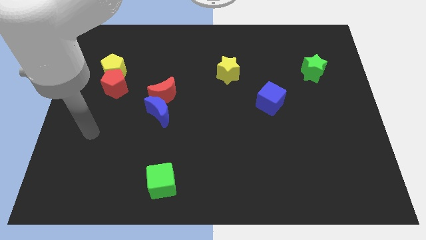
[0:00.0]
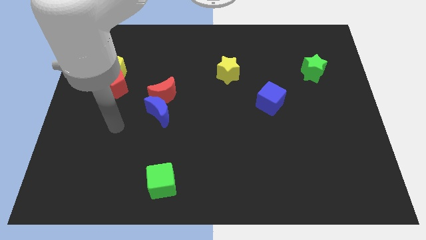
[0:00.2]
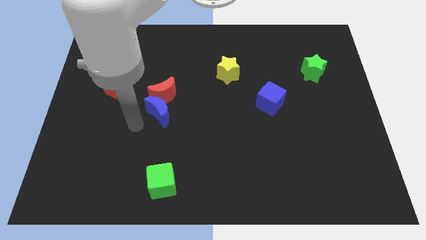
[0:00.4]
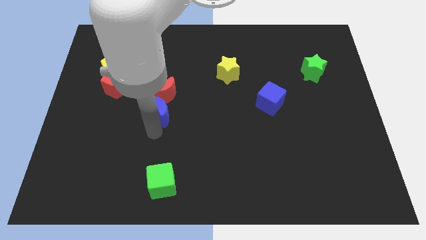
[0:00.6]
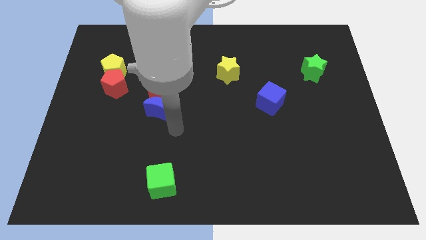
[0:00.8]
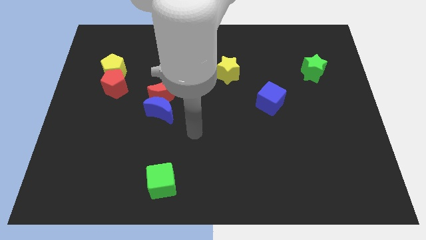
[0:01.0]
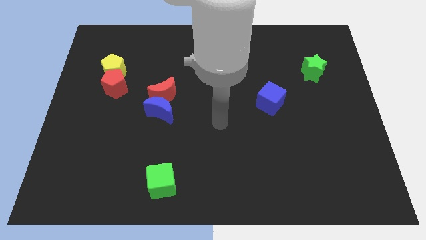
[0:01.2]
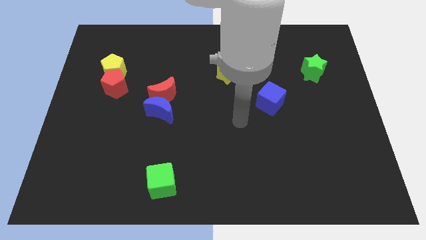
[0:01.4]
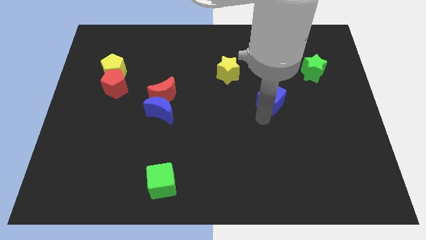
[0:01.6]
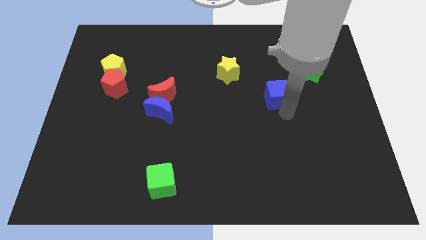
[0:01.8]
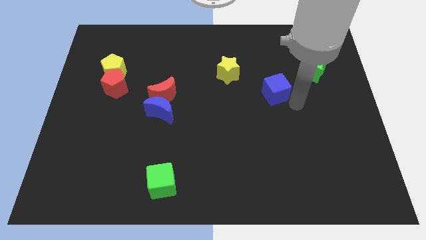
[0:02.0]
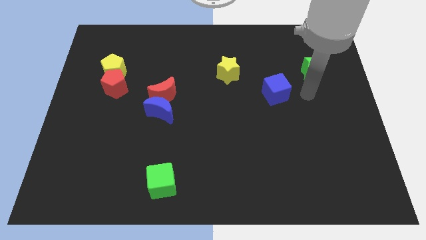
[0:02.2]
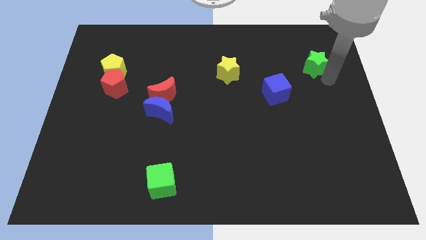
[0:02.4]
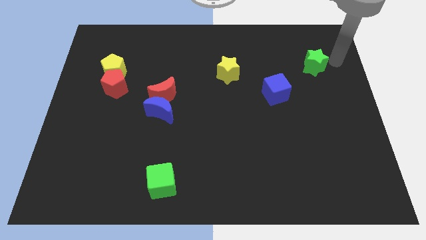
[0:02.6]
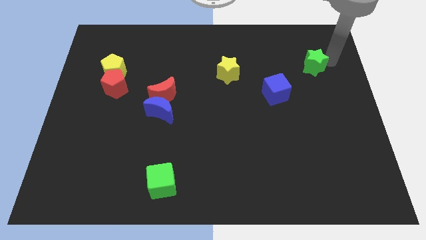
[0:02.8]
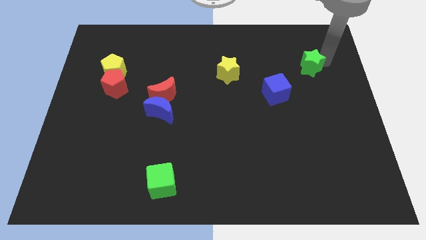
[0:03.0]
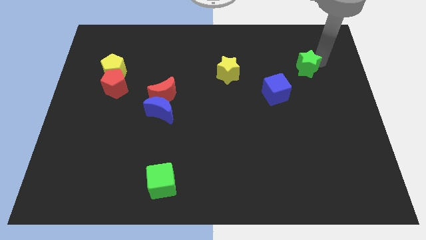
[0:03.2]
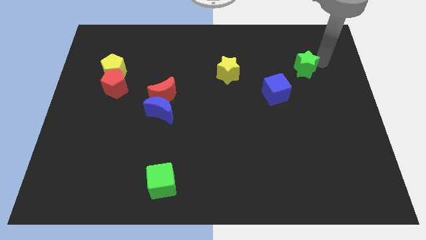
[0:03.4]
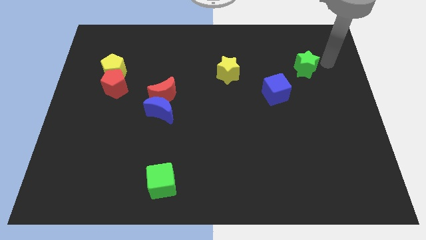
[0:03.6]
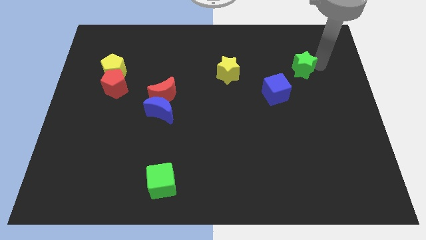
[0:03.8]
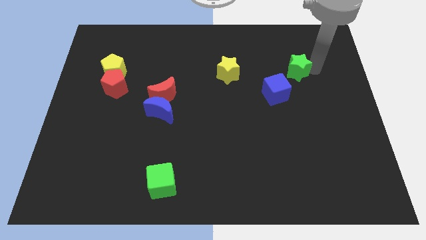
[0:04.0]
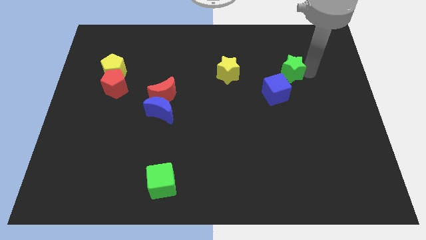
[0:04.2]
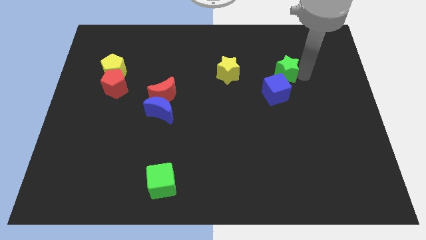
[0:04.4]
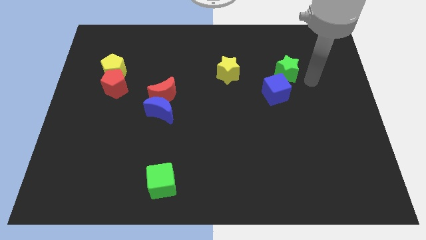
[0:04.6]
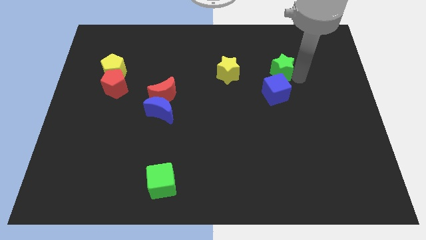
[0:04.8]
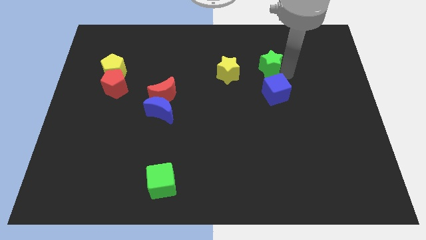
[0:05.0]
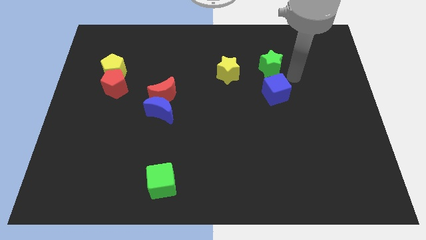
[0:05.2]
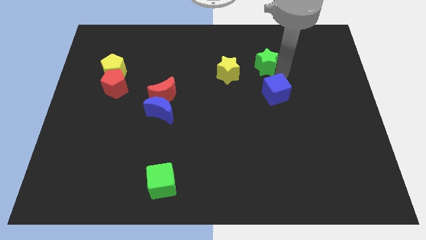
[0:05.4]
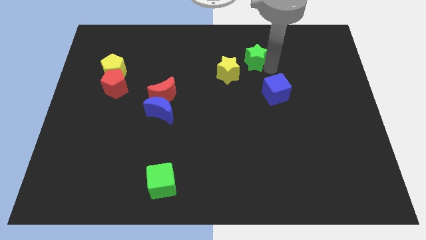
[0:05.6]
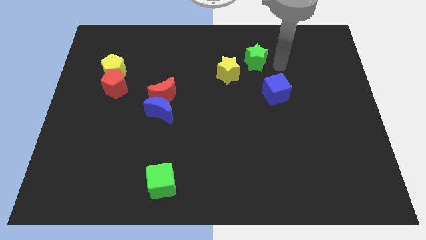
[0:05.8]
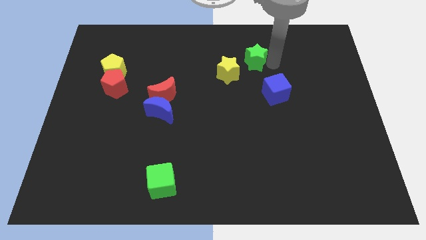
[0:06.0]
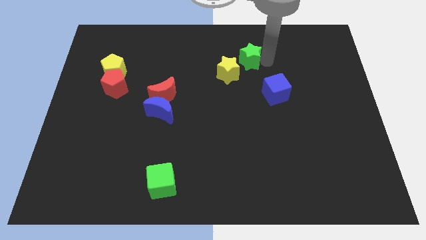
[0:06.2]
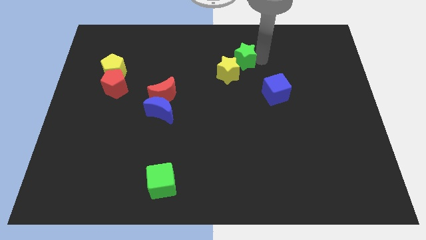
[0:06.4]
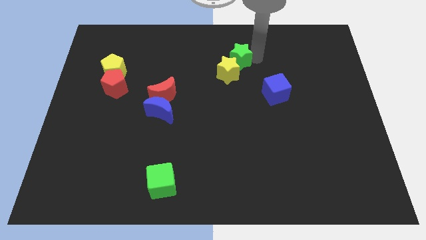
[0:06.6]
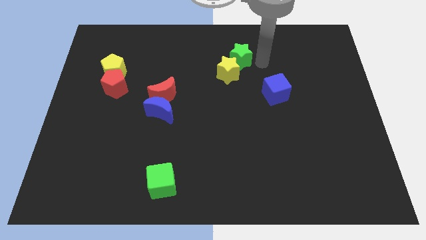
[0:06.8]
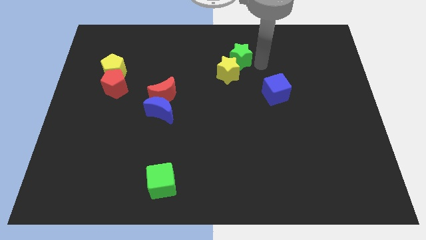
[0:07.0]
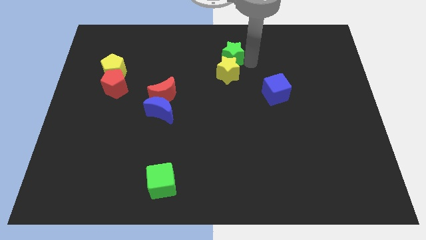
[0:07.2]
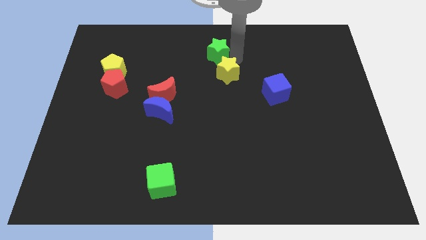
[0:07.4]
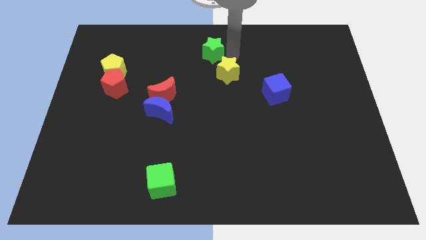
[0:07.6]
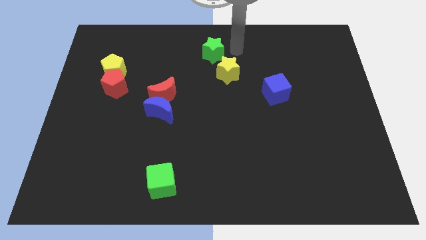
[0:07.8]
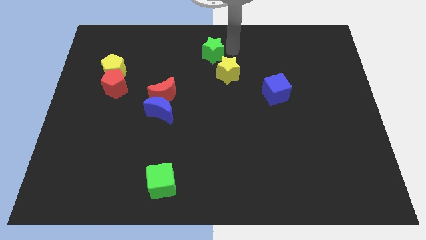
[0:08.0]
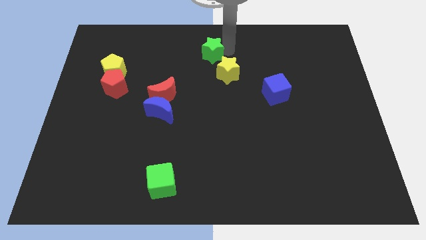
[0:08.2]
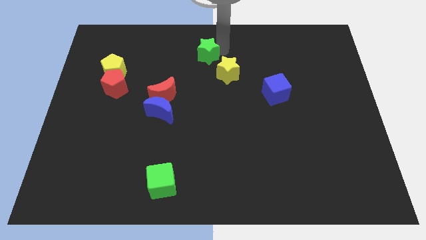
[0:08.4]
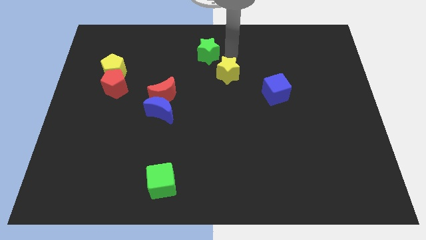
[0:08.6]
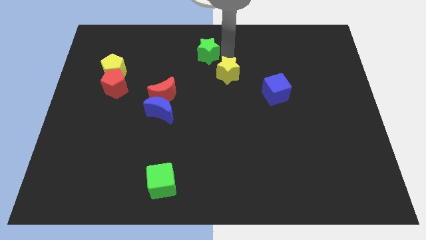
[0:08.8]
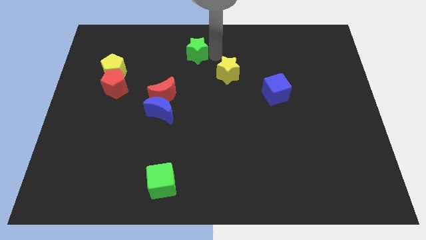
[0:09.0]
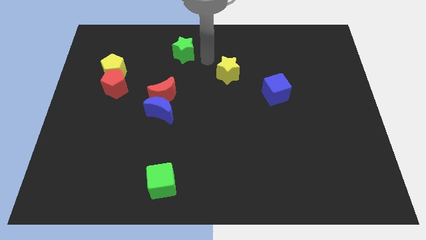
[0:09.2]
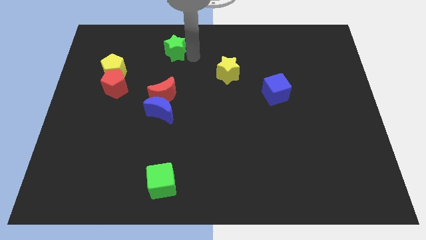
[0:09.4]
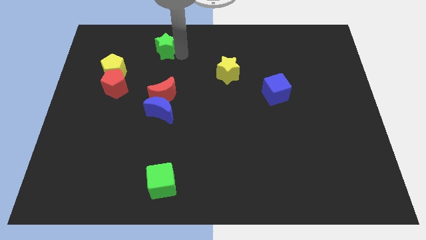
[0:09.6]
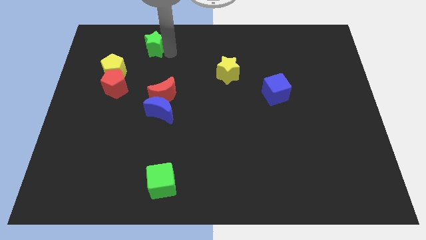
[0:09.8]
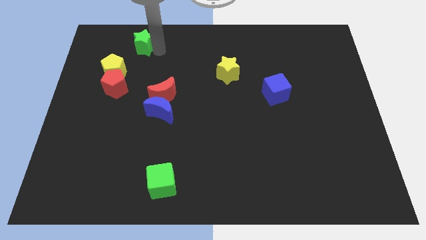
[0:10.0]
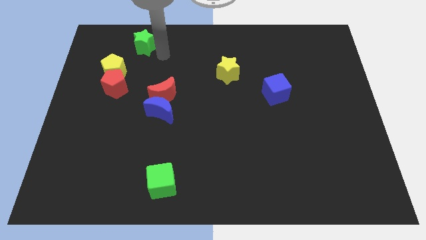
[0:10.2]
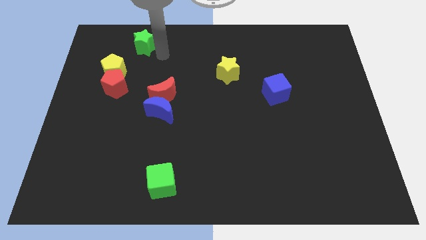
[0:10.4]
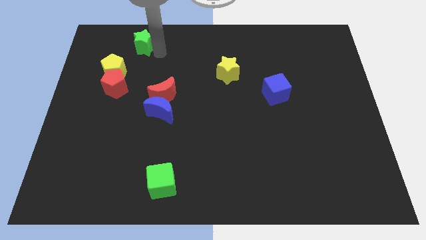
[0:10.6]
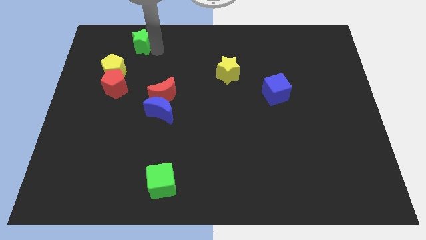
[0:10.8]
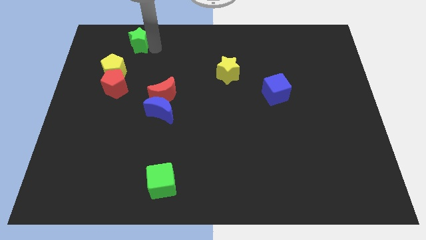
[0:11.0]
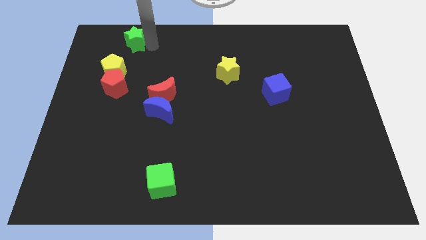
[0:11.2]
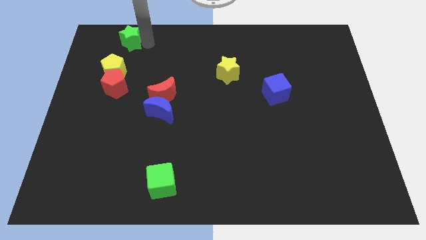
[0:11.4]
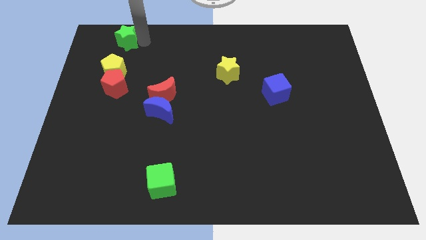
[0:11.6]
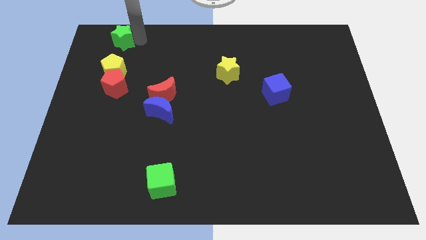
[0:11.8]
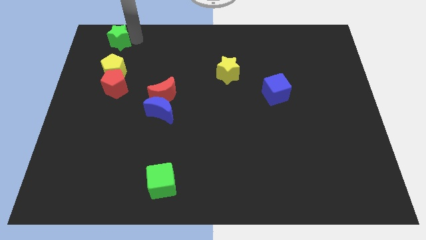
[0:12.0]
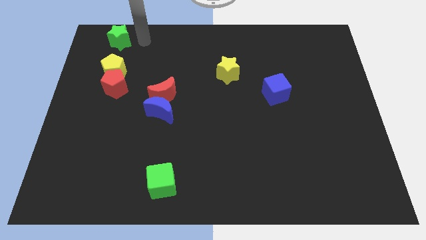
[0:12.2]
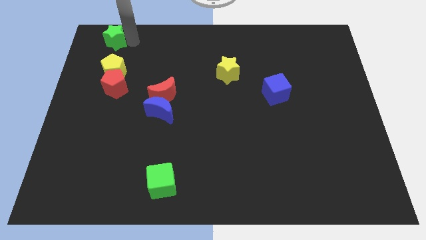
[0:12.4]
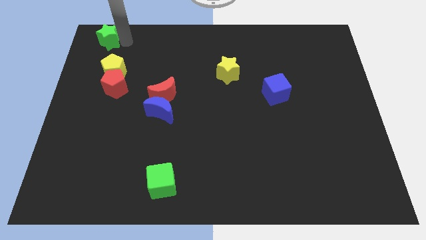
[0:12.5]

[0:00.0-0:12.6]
slide the green star to the top left

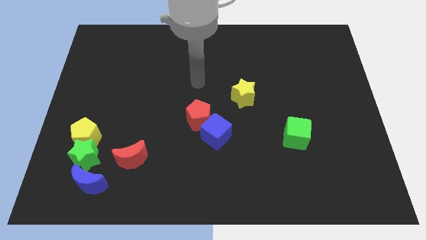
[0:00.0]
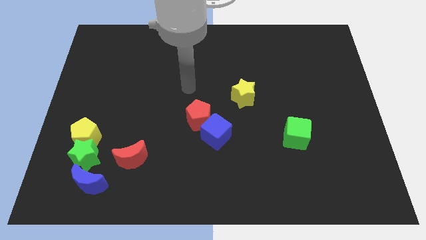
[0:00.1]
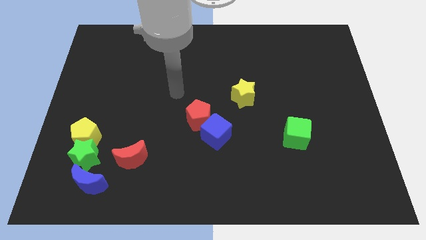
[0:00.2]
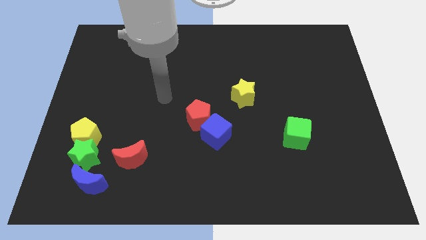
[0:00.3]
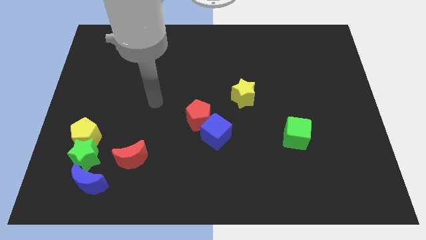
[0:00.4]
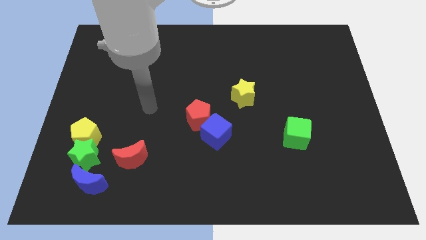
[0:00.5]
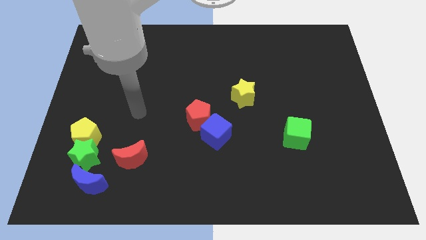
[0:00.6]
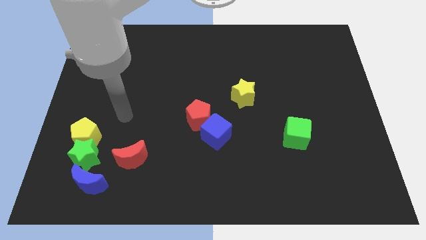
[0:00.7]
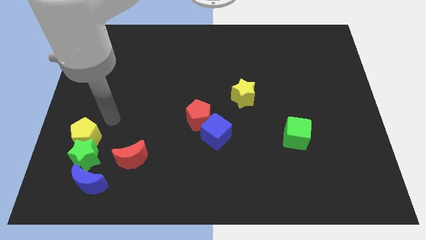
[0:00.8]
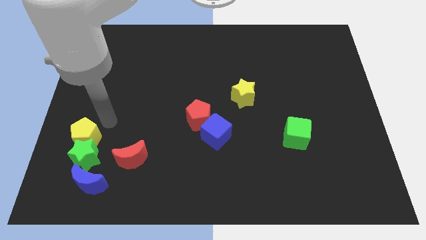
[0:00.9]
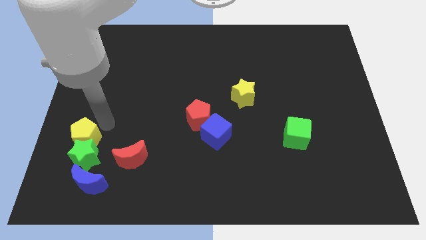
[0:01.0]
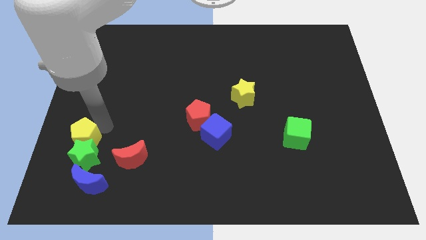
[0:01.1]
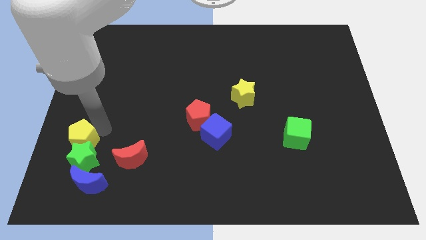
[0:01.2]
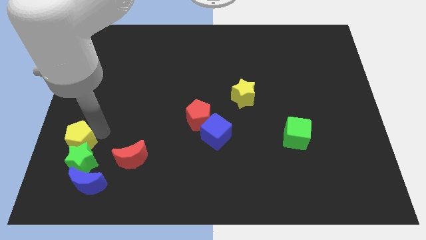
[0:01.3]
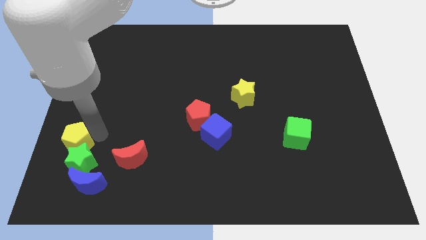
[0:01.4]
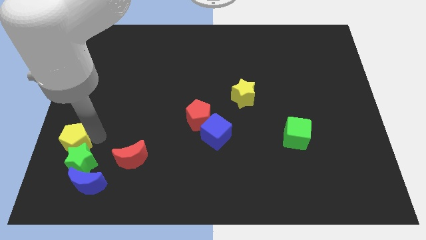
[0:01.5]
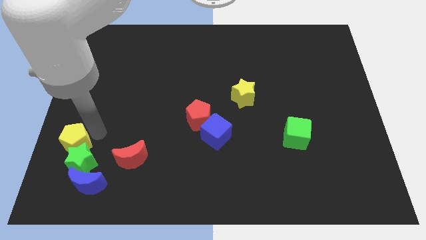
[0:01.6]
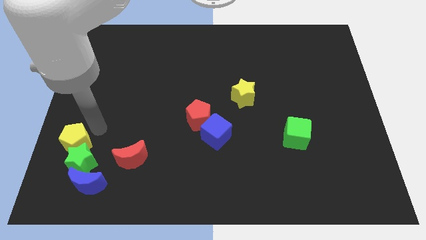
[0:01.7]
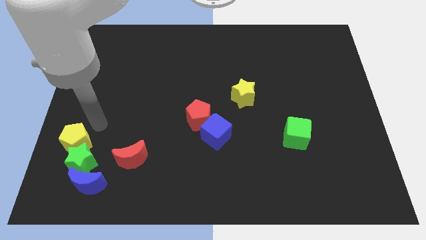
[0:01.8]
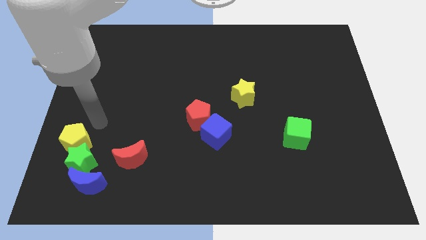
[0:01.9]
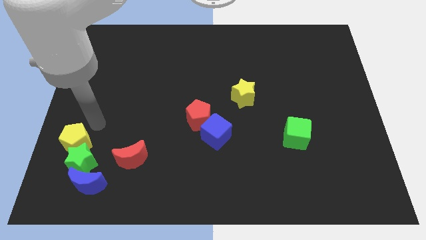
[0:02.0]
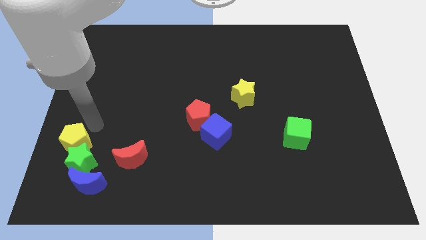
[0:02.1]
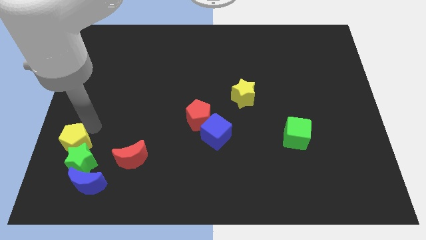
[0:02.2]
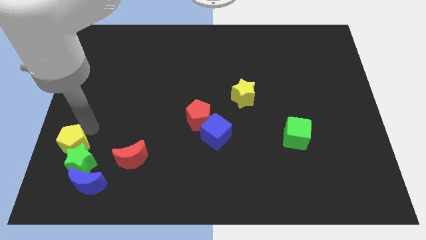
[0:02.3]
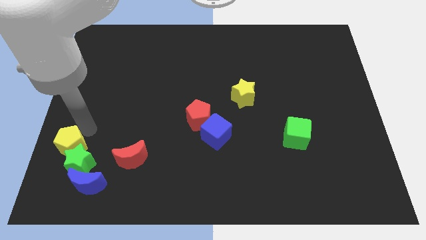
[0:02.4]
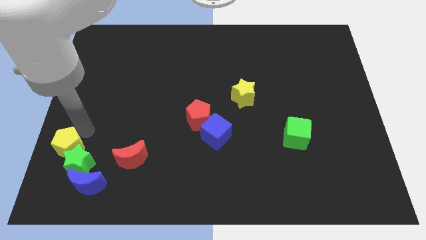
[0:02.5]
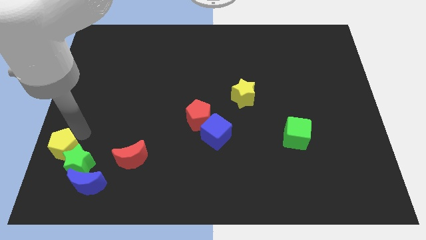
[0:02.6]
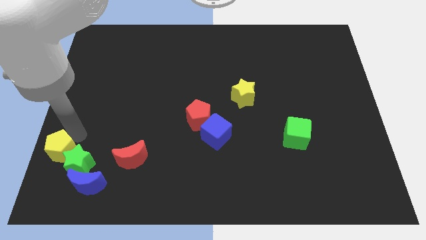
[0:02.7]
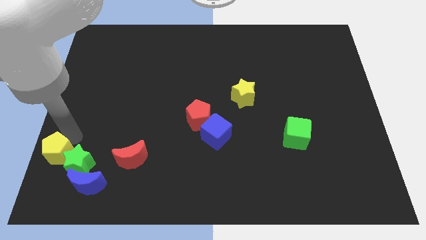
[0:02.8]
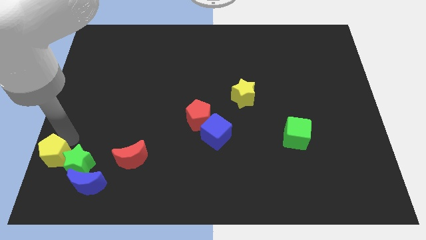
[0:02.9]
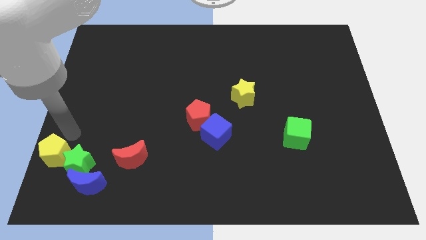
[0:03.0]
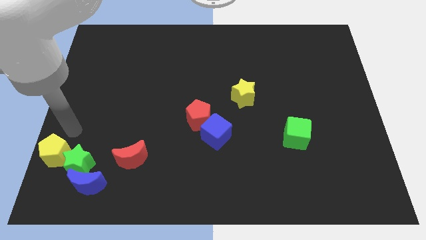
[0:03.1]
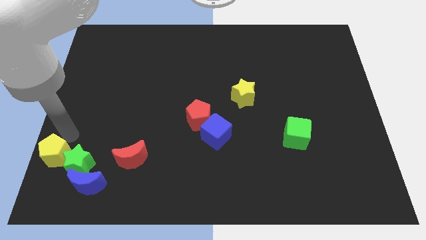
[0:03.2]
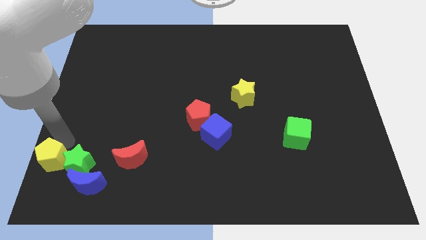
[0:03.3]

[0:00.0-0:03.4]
put the yellow pentagon to the bottom left
